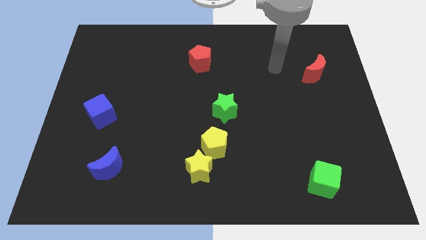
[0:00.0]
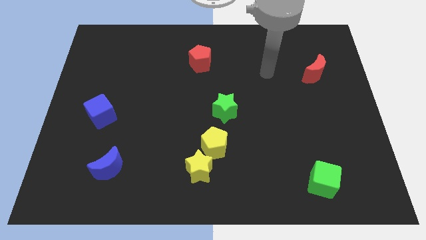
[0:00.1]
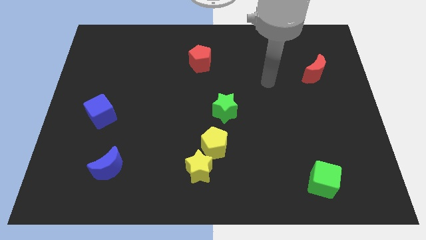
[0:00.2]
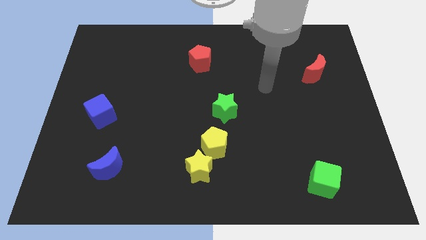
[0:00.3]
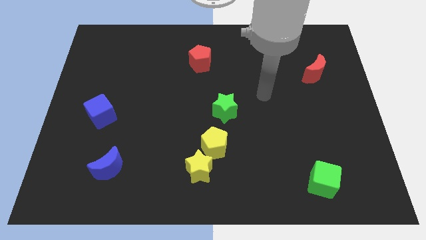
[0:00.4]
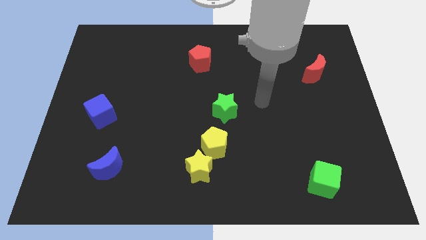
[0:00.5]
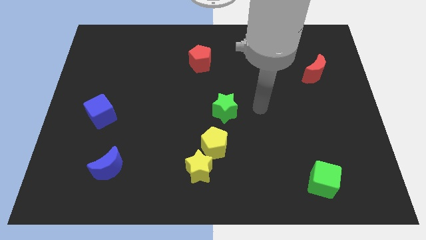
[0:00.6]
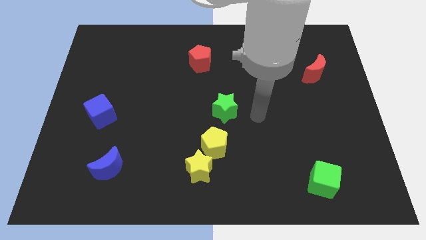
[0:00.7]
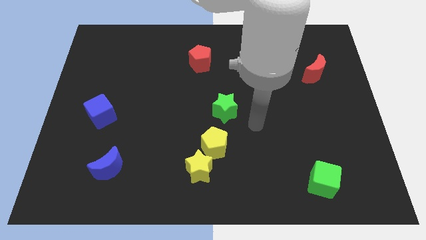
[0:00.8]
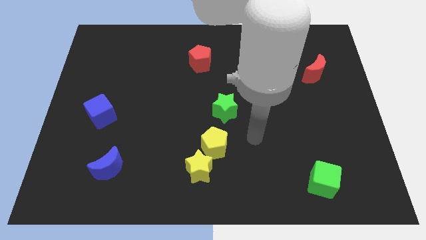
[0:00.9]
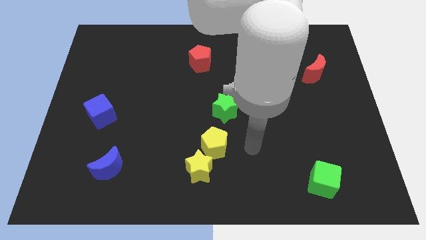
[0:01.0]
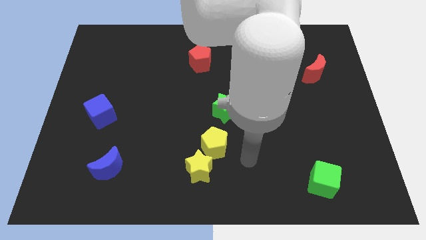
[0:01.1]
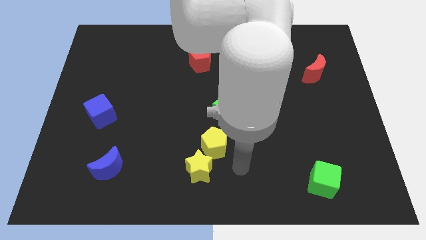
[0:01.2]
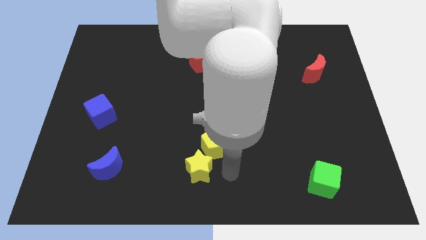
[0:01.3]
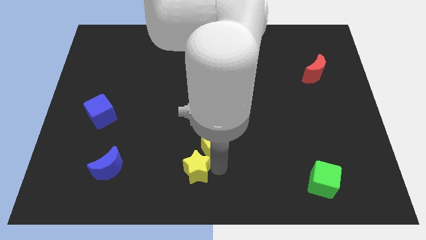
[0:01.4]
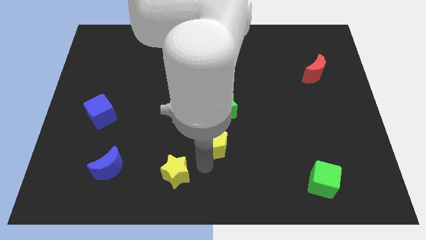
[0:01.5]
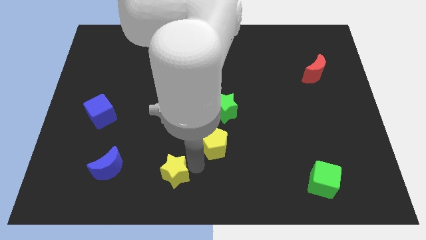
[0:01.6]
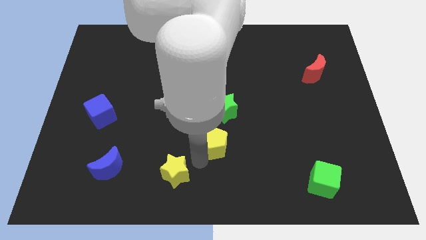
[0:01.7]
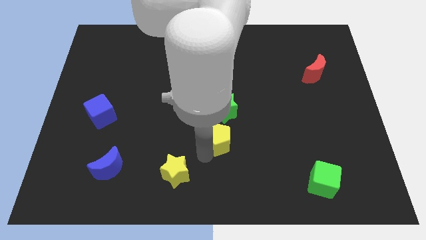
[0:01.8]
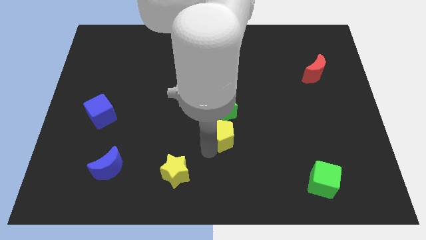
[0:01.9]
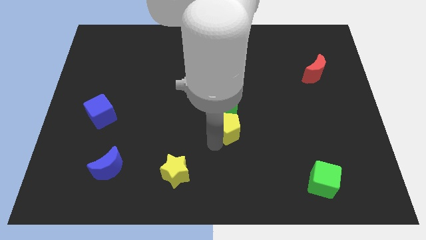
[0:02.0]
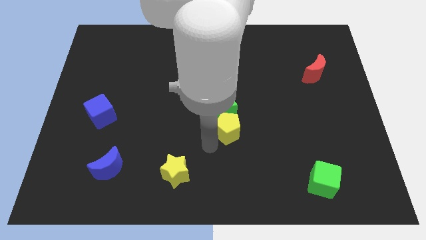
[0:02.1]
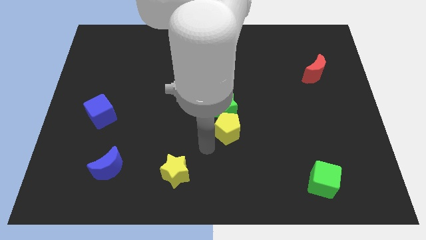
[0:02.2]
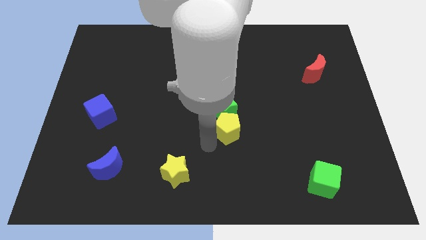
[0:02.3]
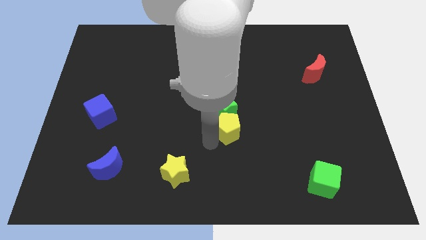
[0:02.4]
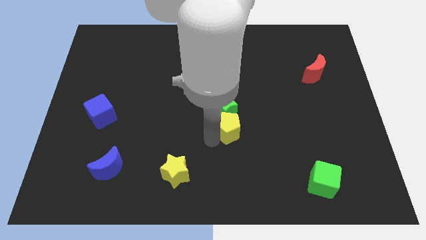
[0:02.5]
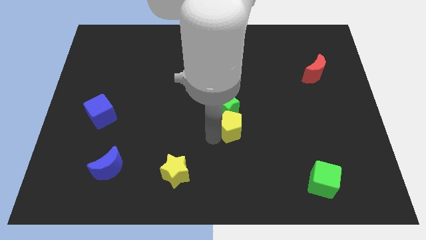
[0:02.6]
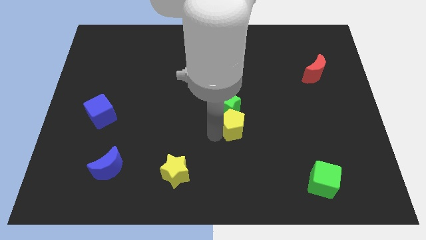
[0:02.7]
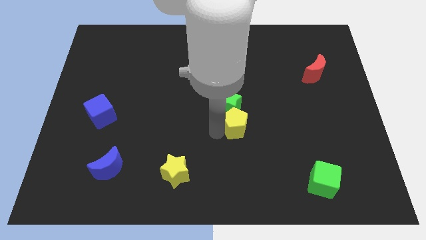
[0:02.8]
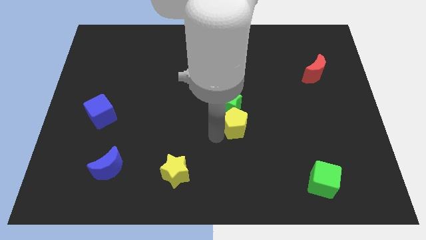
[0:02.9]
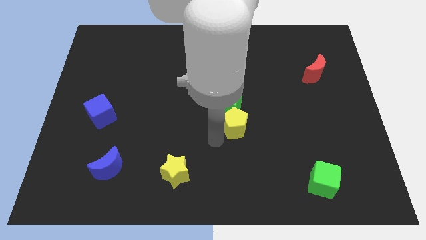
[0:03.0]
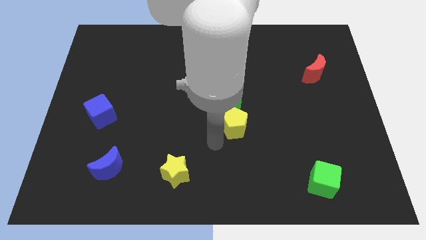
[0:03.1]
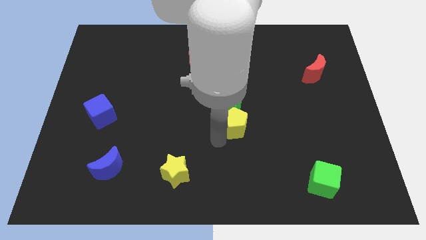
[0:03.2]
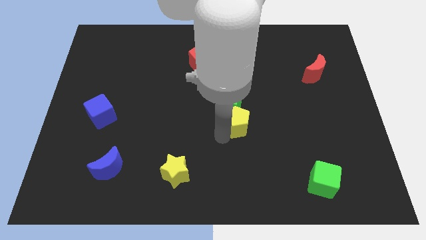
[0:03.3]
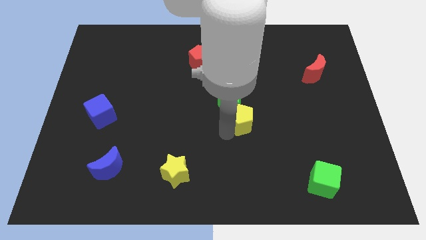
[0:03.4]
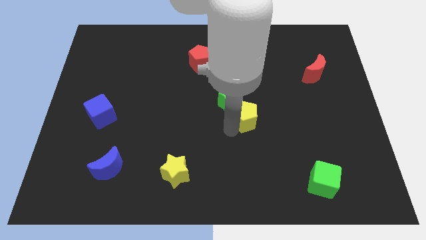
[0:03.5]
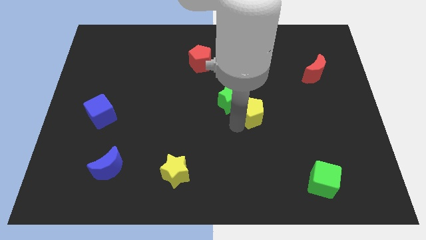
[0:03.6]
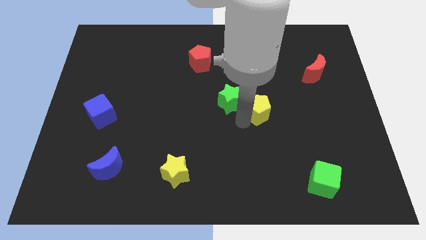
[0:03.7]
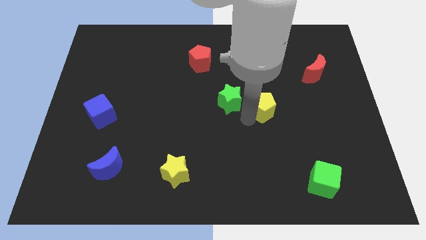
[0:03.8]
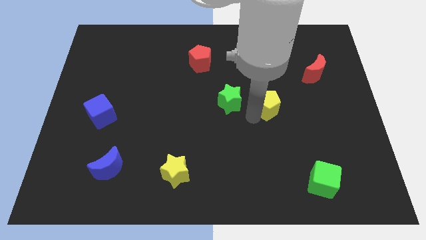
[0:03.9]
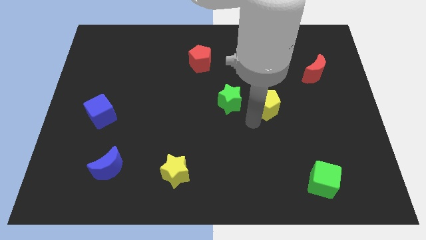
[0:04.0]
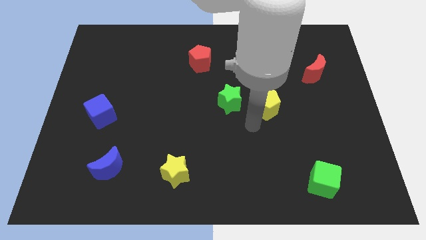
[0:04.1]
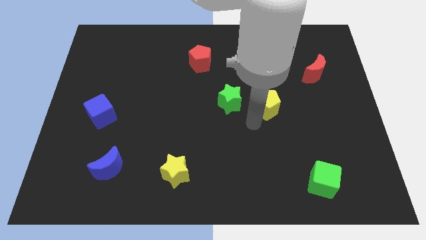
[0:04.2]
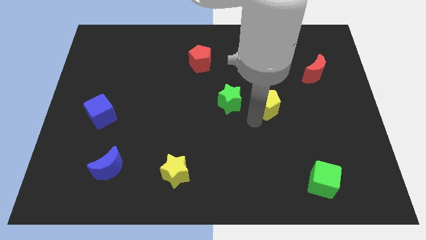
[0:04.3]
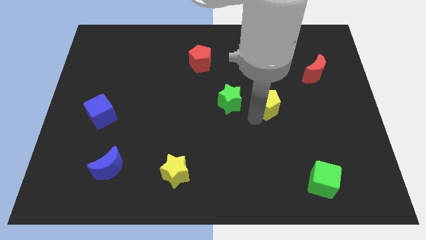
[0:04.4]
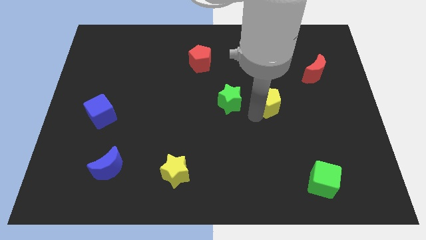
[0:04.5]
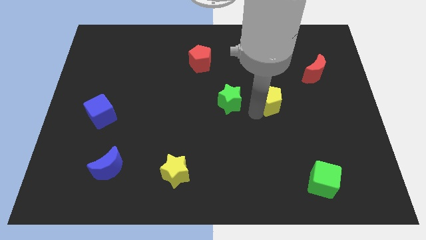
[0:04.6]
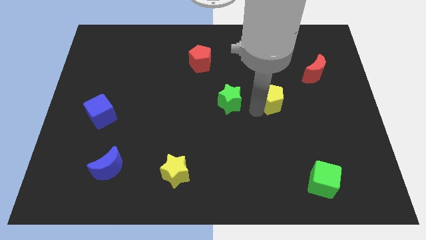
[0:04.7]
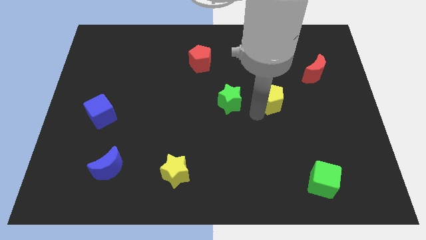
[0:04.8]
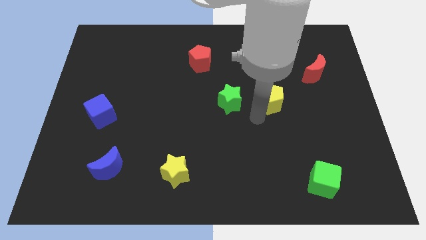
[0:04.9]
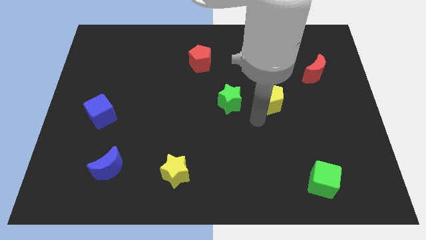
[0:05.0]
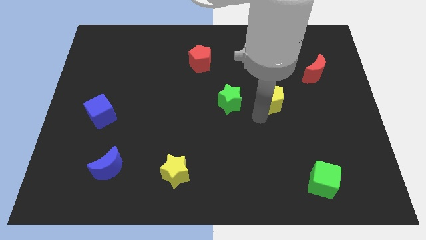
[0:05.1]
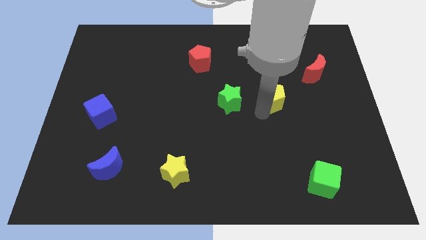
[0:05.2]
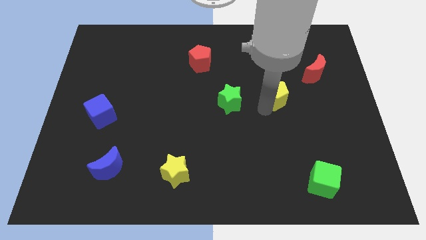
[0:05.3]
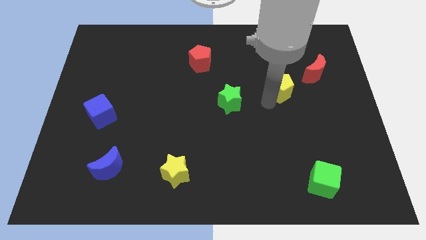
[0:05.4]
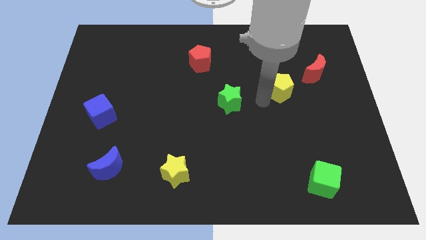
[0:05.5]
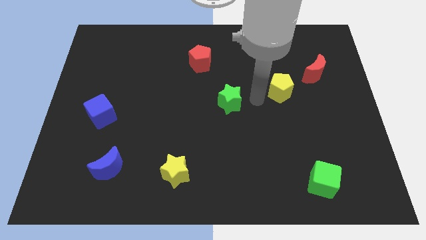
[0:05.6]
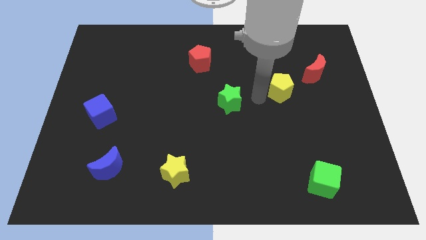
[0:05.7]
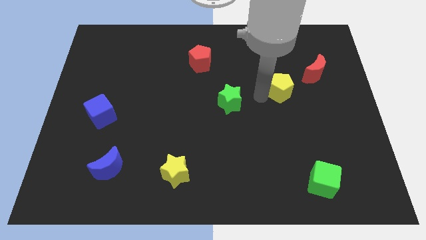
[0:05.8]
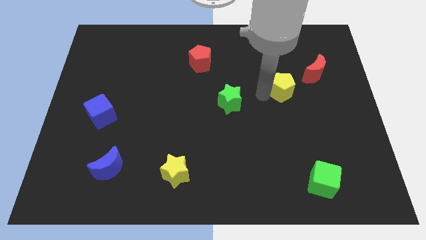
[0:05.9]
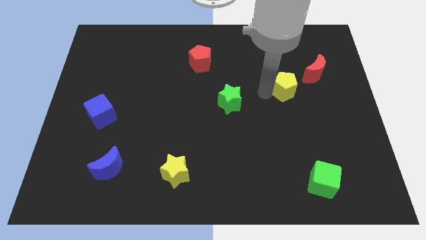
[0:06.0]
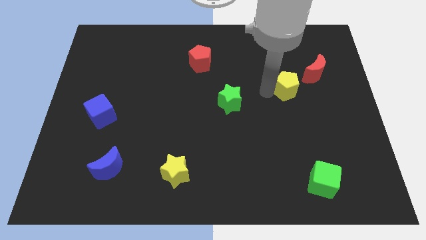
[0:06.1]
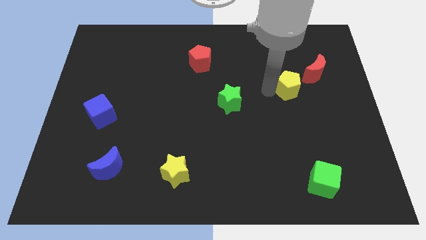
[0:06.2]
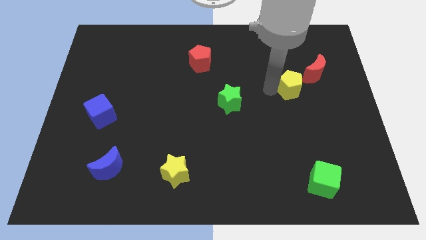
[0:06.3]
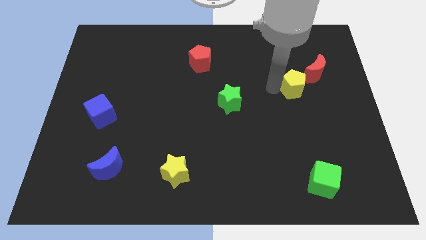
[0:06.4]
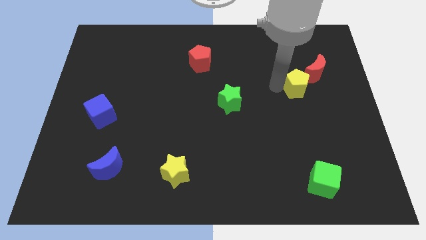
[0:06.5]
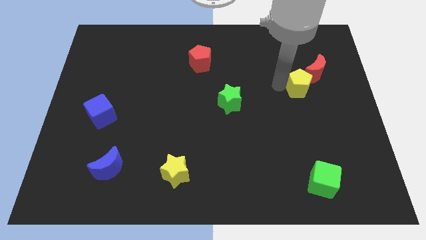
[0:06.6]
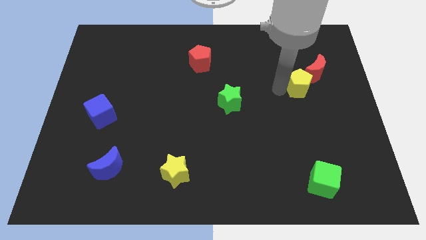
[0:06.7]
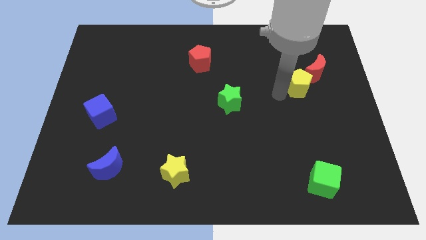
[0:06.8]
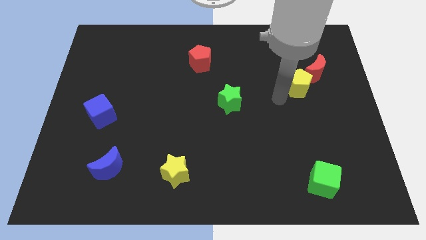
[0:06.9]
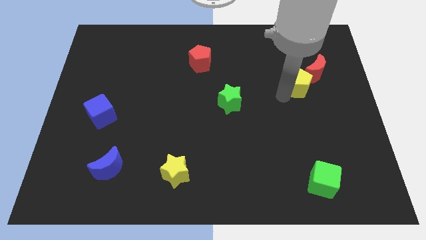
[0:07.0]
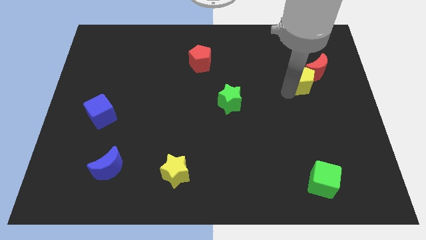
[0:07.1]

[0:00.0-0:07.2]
put the yellow pentagon next to the red moon
